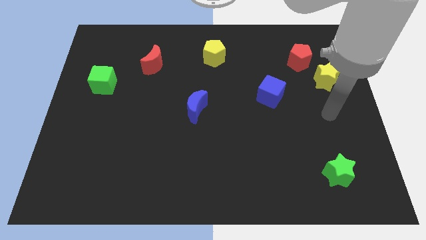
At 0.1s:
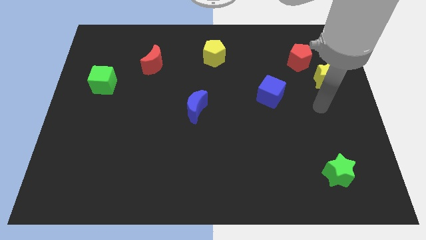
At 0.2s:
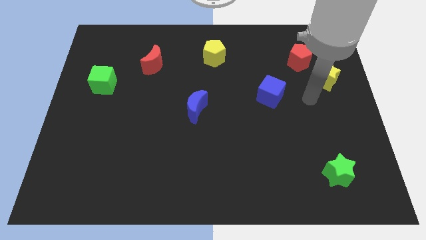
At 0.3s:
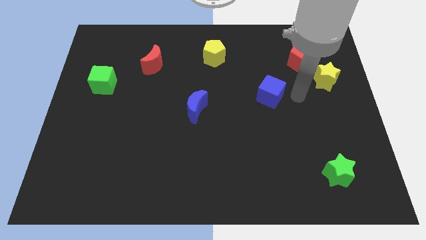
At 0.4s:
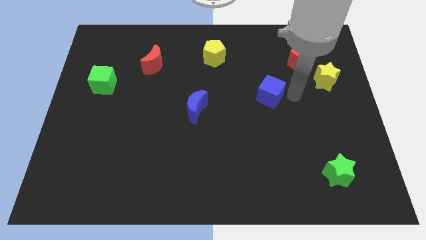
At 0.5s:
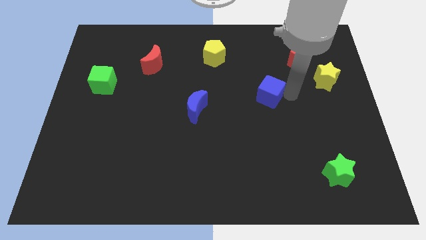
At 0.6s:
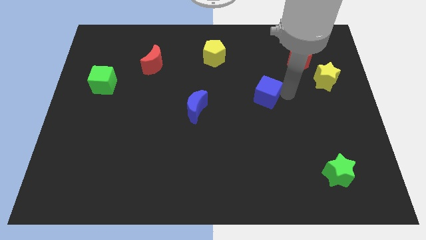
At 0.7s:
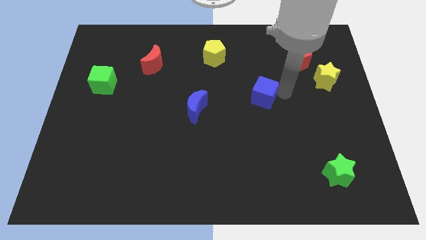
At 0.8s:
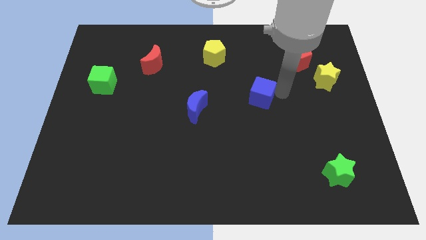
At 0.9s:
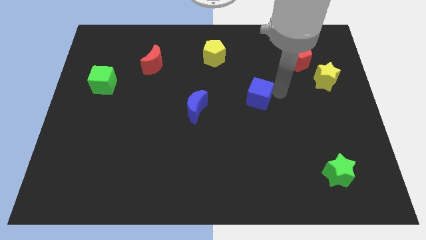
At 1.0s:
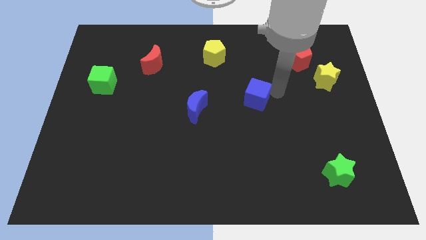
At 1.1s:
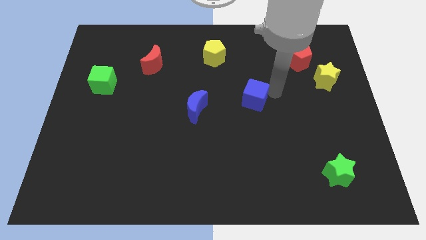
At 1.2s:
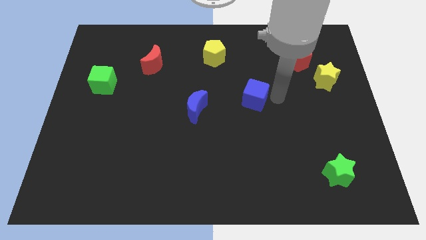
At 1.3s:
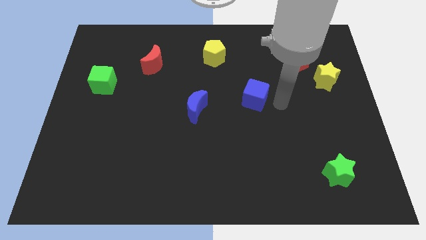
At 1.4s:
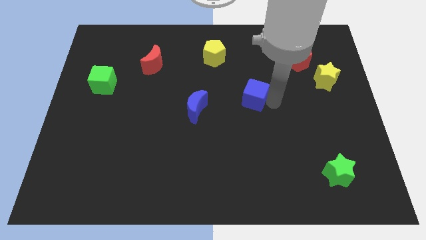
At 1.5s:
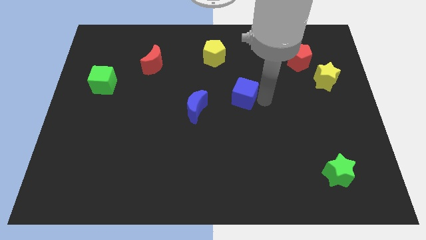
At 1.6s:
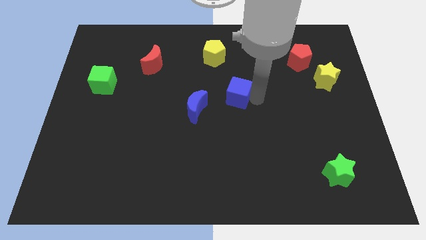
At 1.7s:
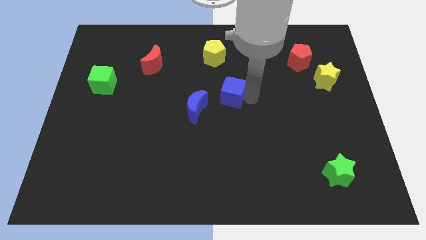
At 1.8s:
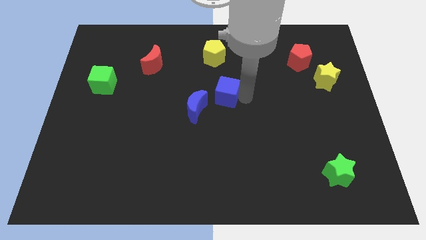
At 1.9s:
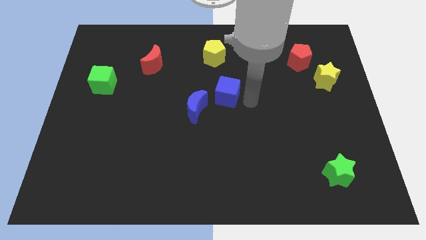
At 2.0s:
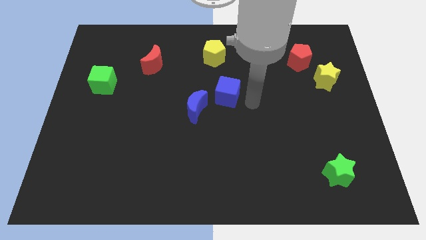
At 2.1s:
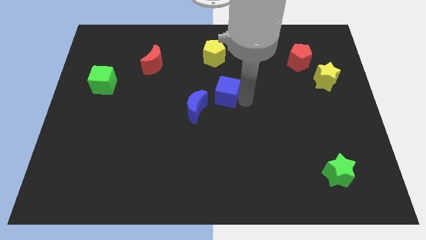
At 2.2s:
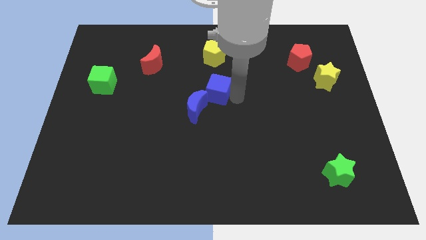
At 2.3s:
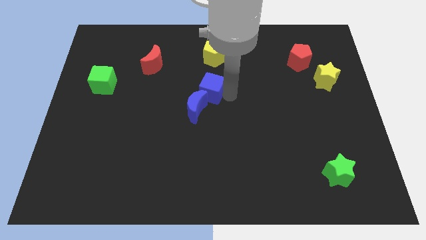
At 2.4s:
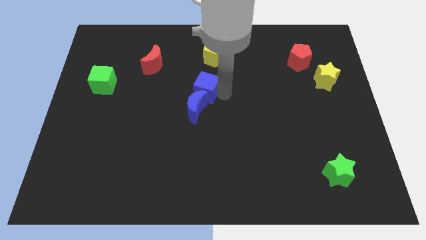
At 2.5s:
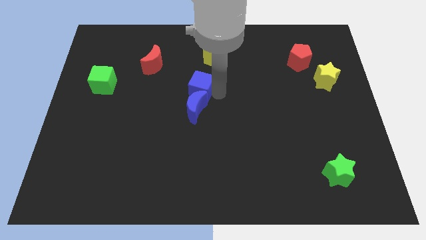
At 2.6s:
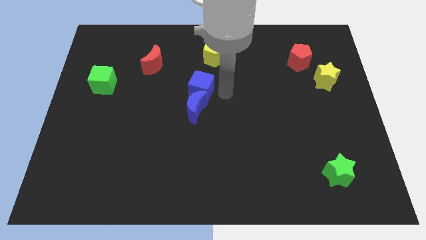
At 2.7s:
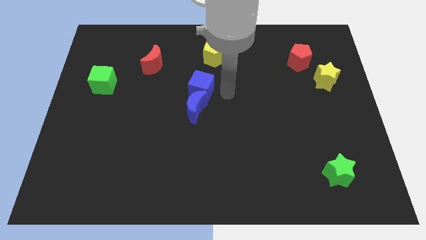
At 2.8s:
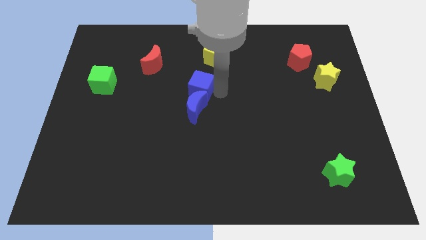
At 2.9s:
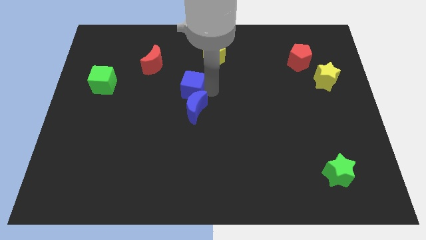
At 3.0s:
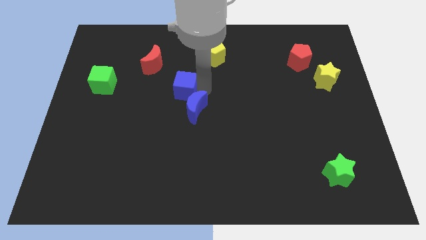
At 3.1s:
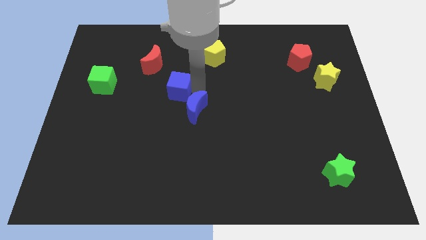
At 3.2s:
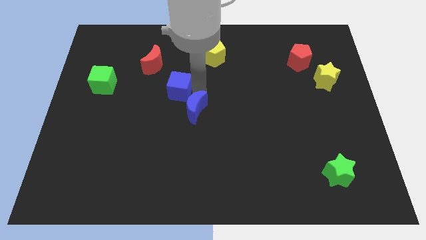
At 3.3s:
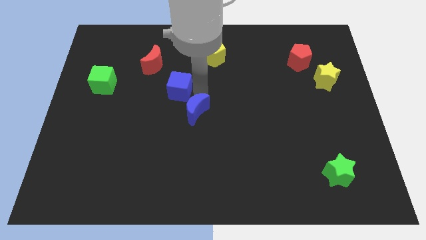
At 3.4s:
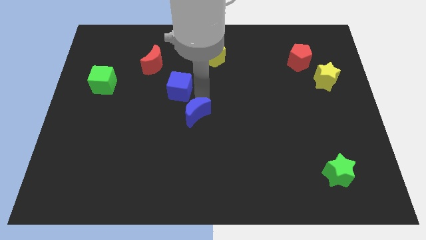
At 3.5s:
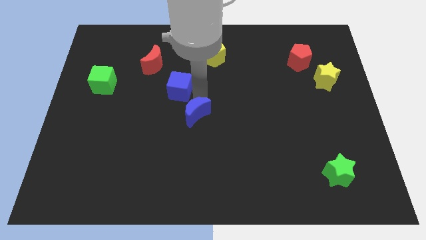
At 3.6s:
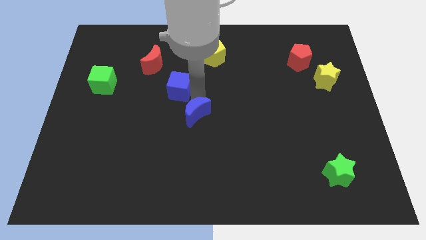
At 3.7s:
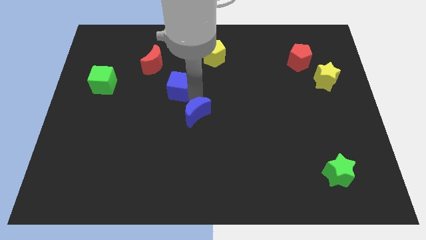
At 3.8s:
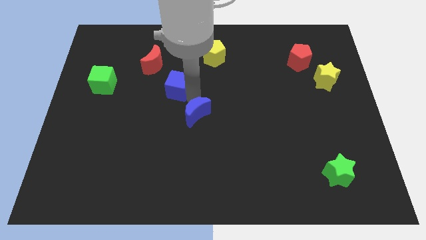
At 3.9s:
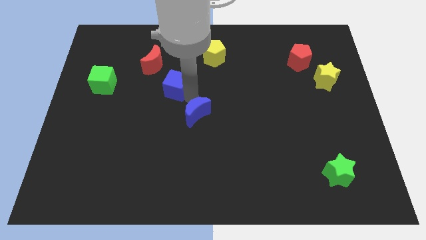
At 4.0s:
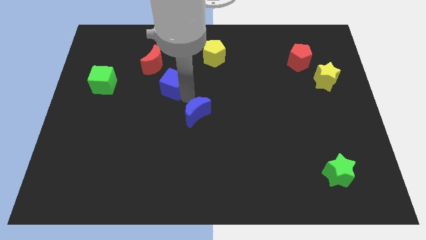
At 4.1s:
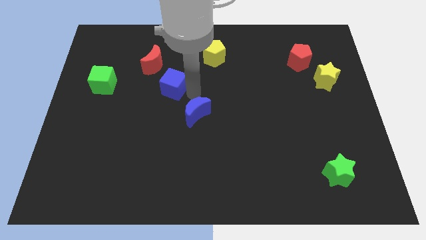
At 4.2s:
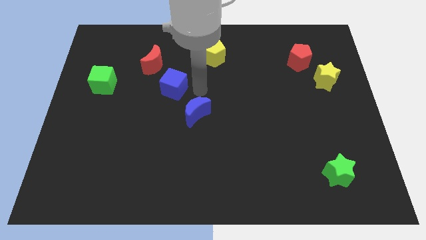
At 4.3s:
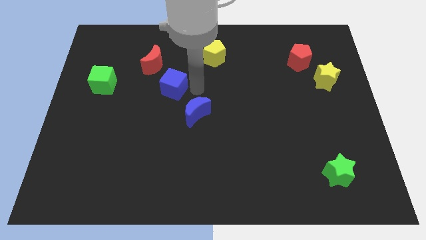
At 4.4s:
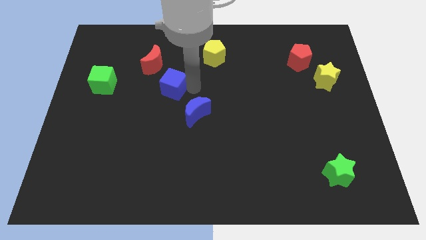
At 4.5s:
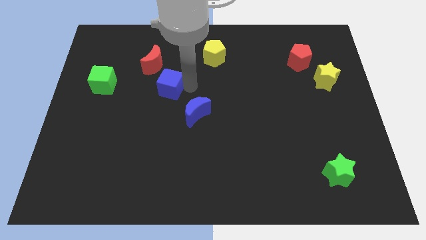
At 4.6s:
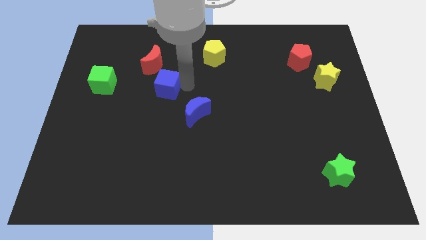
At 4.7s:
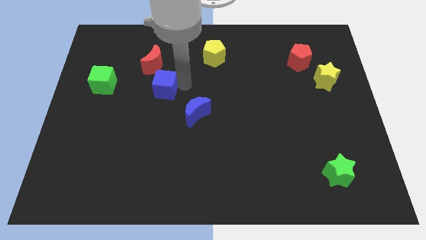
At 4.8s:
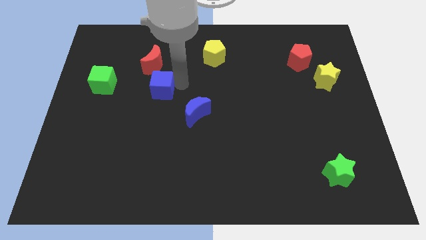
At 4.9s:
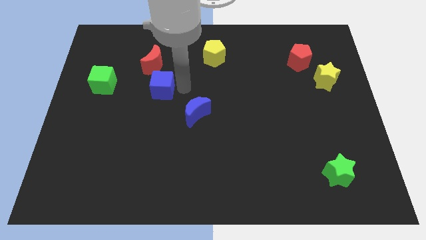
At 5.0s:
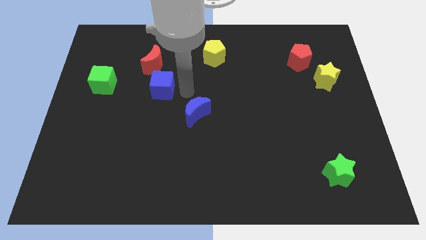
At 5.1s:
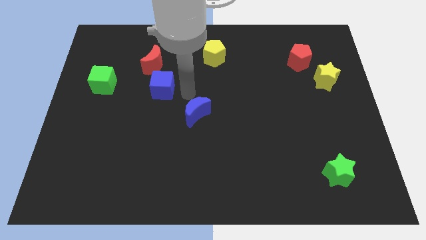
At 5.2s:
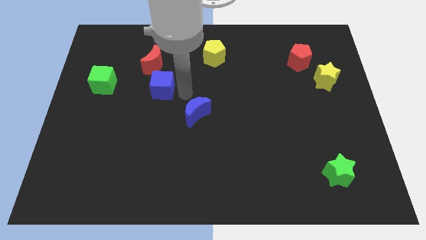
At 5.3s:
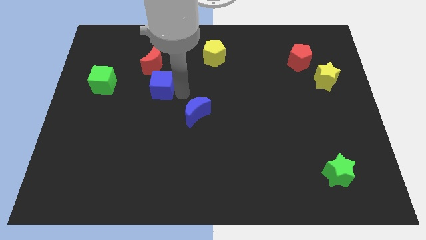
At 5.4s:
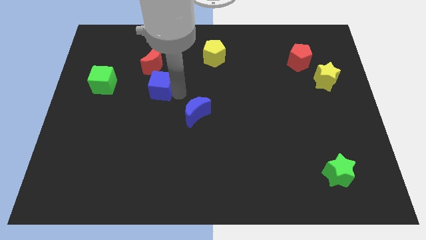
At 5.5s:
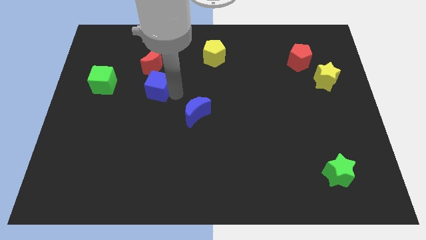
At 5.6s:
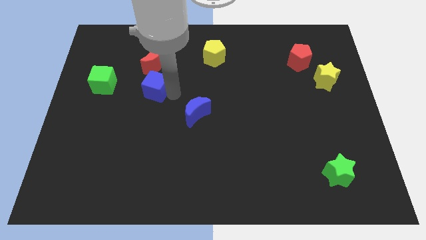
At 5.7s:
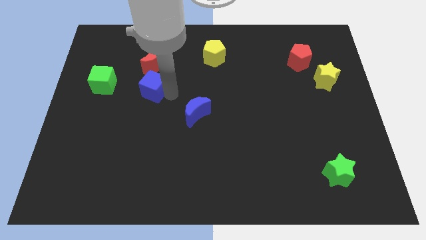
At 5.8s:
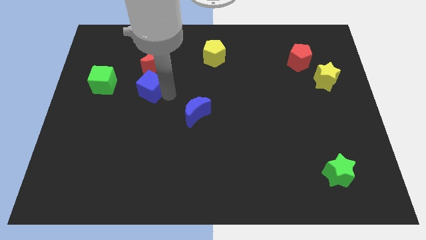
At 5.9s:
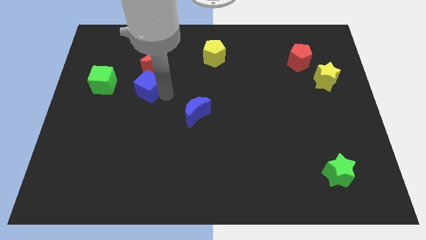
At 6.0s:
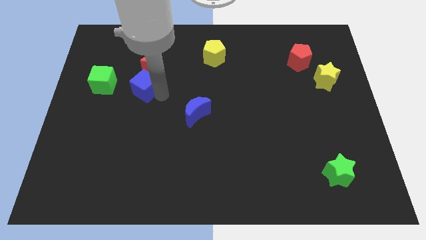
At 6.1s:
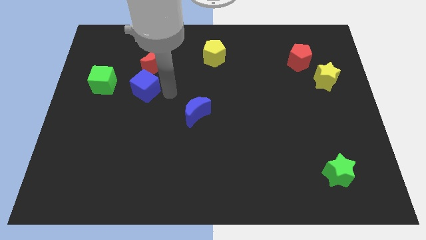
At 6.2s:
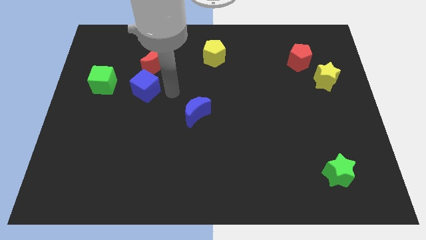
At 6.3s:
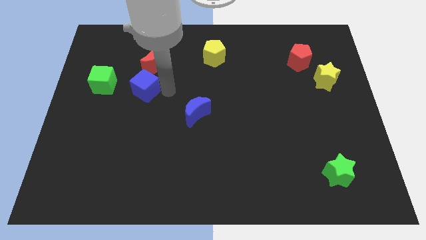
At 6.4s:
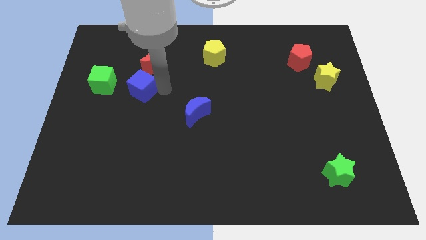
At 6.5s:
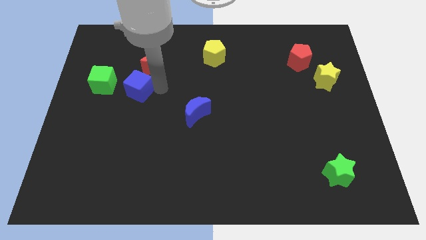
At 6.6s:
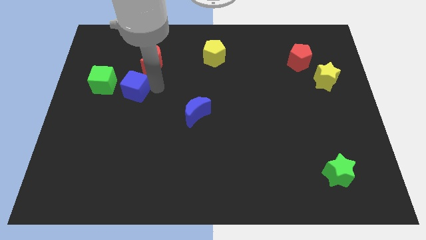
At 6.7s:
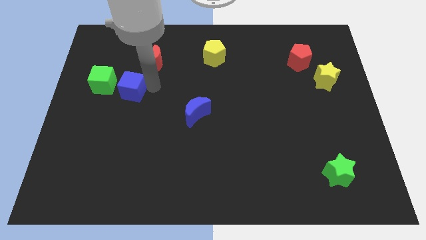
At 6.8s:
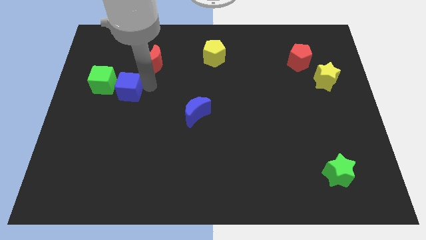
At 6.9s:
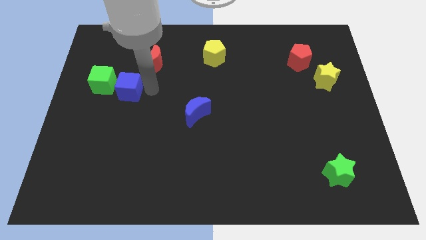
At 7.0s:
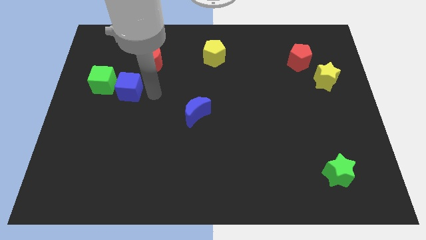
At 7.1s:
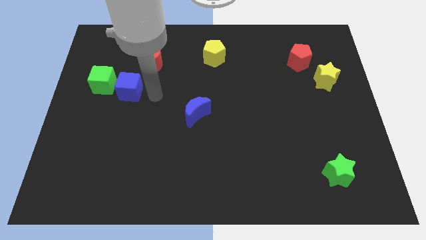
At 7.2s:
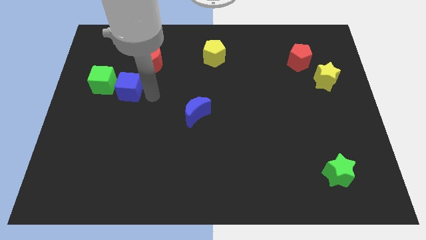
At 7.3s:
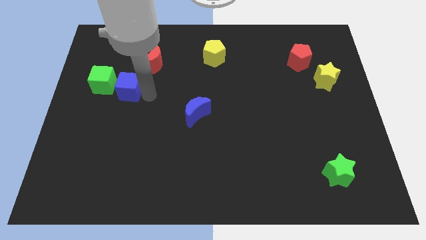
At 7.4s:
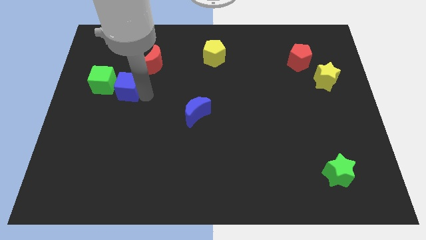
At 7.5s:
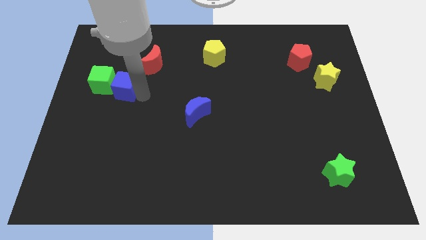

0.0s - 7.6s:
move the blue cube to the green cube
